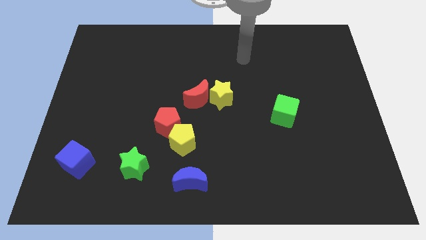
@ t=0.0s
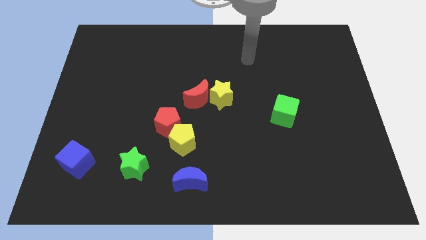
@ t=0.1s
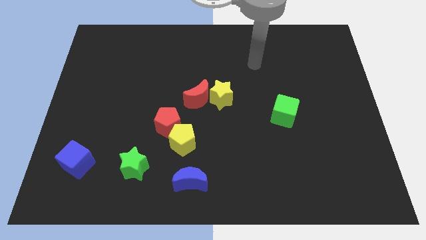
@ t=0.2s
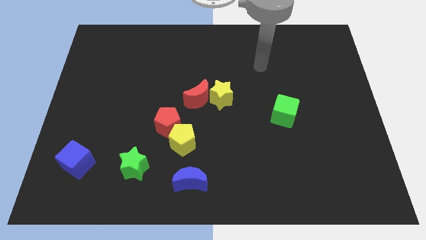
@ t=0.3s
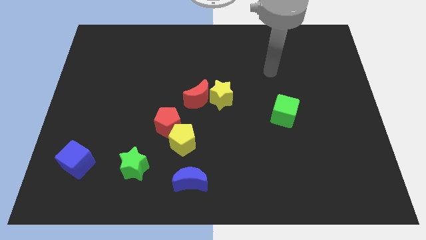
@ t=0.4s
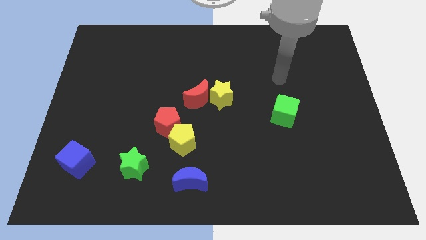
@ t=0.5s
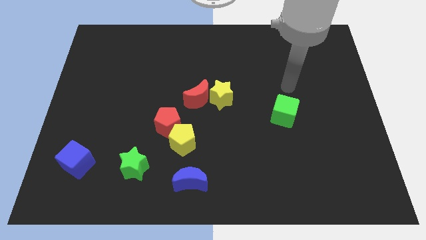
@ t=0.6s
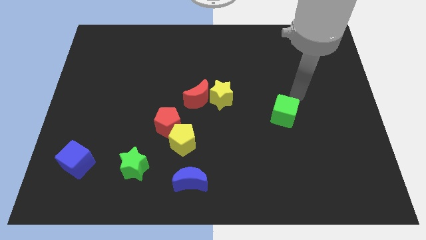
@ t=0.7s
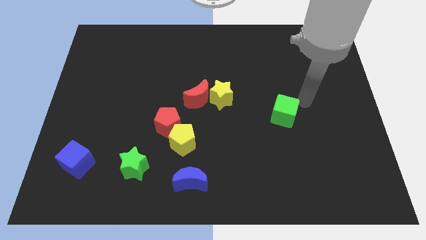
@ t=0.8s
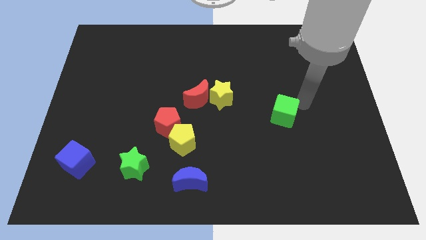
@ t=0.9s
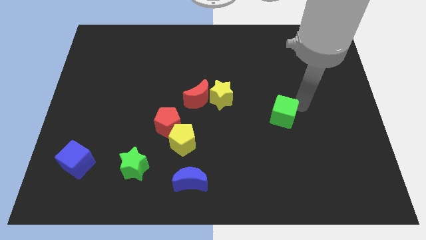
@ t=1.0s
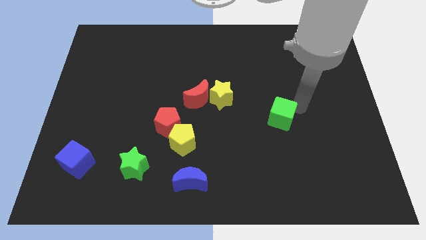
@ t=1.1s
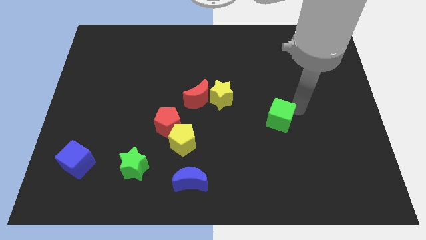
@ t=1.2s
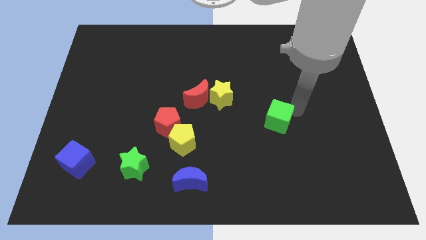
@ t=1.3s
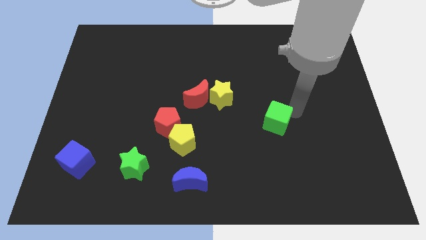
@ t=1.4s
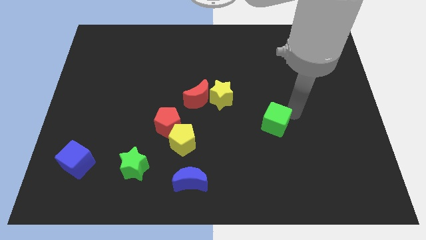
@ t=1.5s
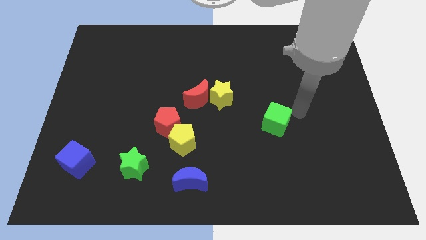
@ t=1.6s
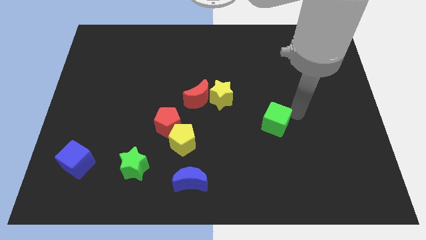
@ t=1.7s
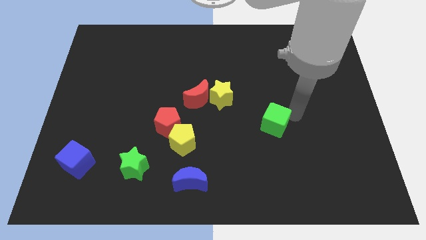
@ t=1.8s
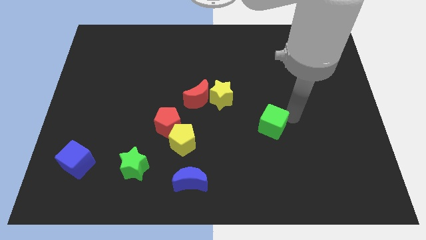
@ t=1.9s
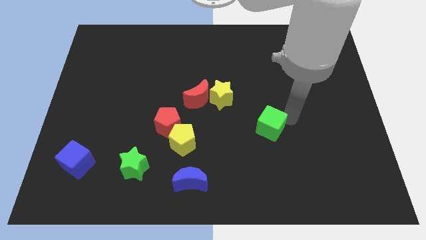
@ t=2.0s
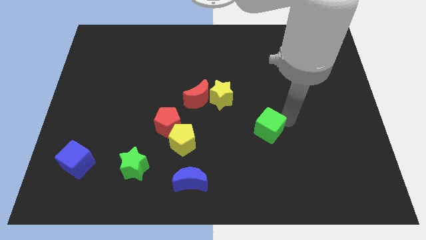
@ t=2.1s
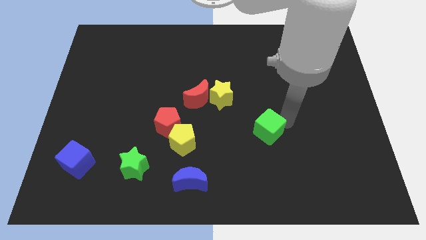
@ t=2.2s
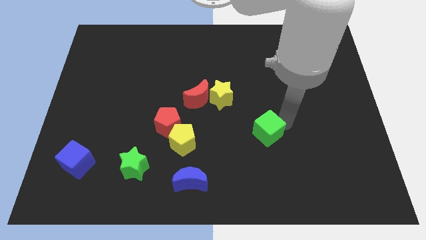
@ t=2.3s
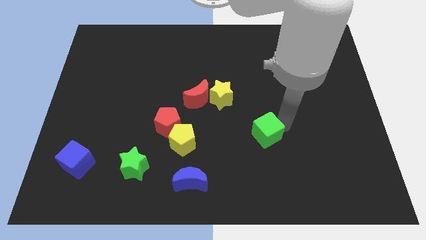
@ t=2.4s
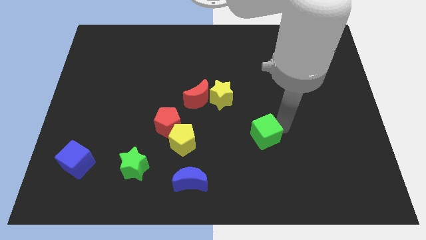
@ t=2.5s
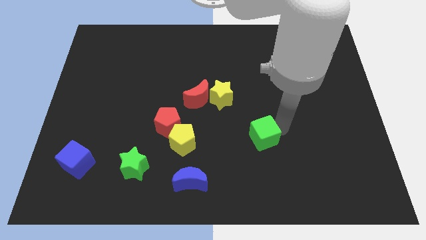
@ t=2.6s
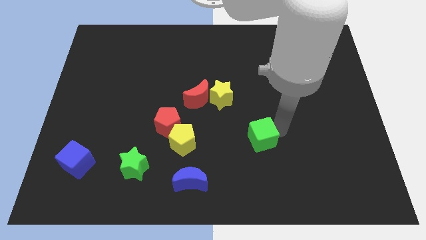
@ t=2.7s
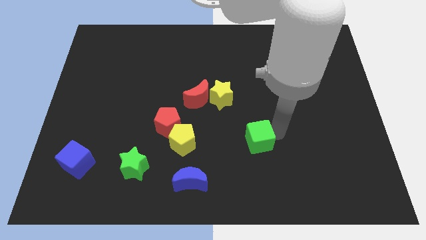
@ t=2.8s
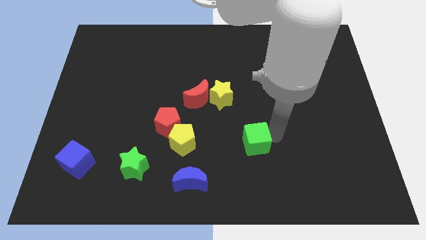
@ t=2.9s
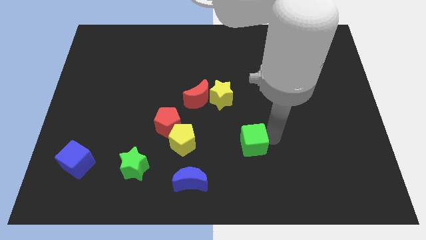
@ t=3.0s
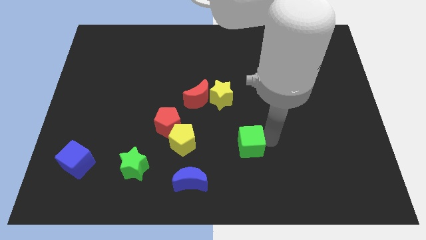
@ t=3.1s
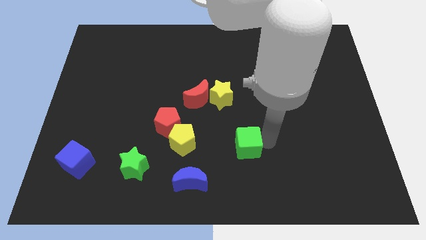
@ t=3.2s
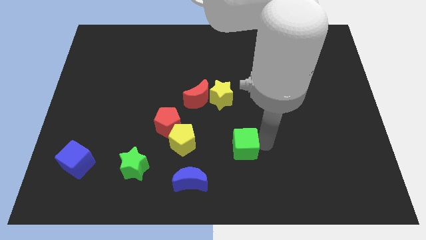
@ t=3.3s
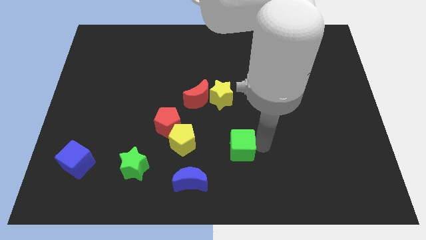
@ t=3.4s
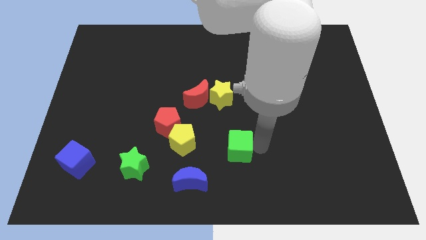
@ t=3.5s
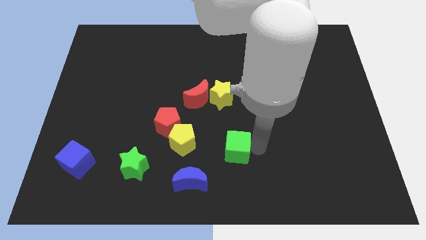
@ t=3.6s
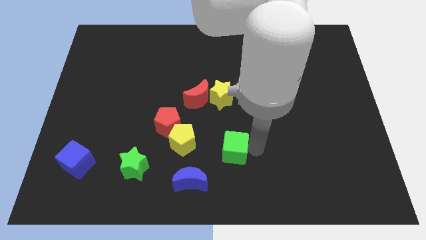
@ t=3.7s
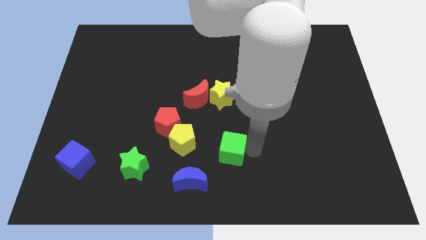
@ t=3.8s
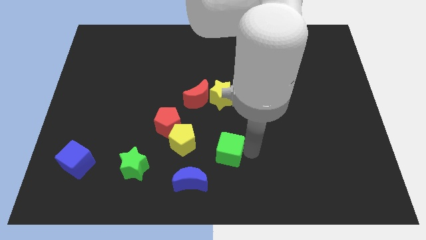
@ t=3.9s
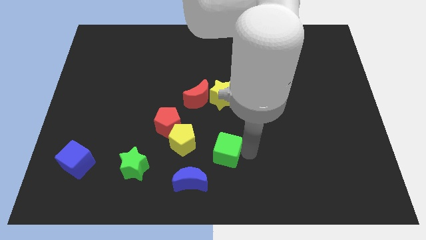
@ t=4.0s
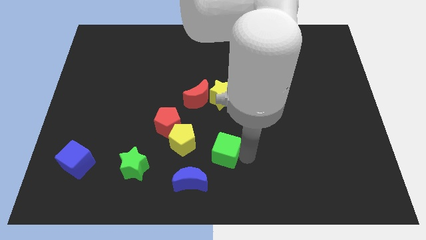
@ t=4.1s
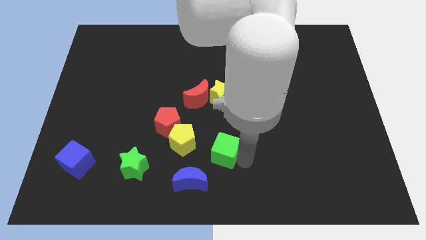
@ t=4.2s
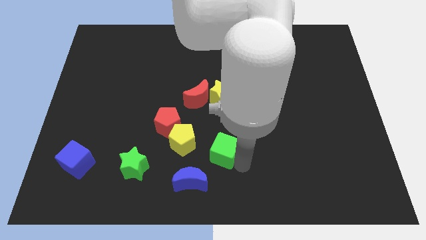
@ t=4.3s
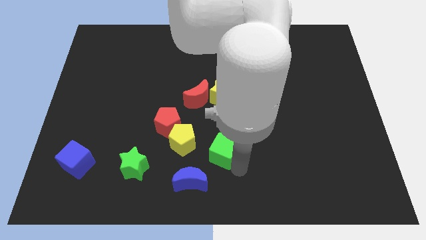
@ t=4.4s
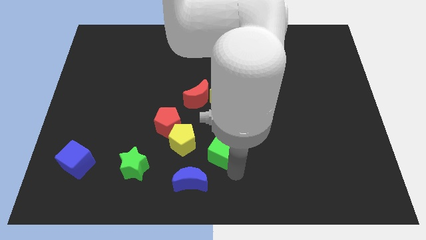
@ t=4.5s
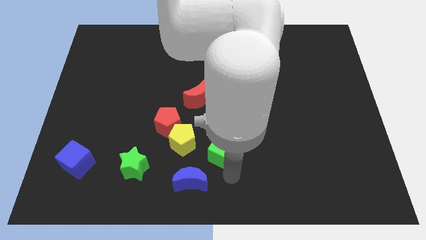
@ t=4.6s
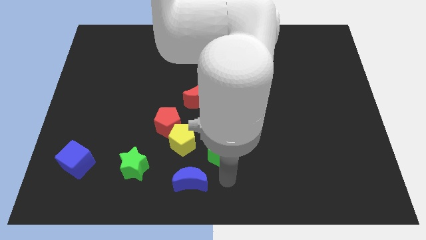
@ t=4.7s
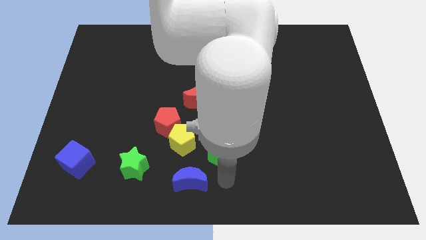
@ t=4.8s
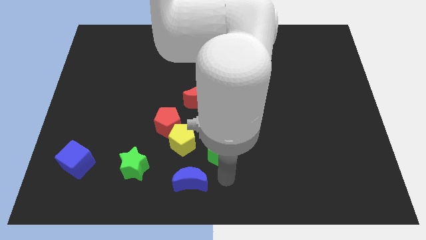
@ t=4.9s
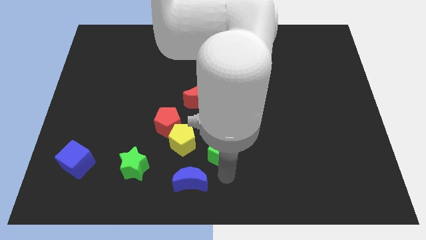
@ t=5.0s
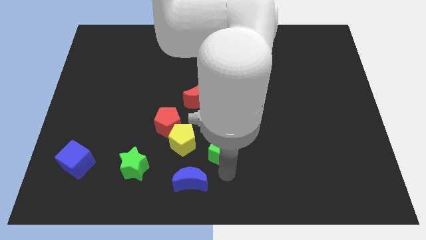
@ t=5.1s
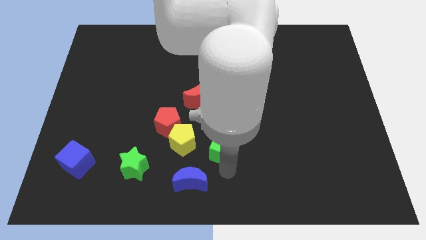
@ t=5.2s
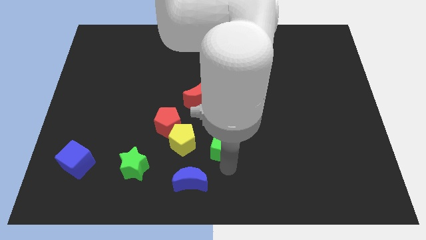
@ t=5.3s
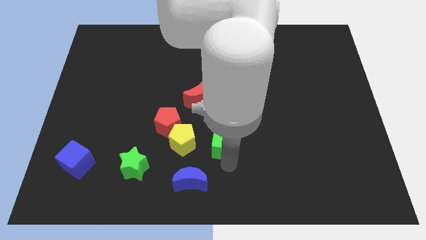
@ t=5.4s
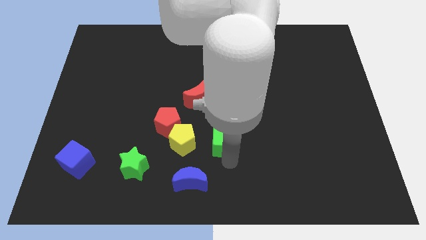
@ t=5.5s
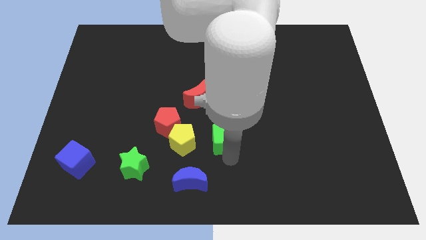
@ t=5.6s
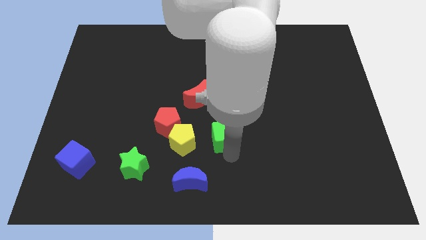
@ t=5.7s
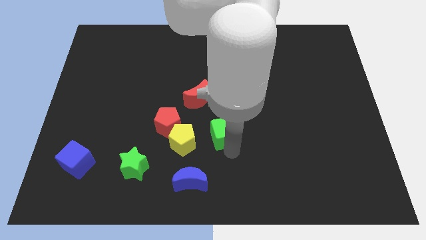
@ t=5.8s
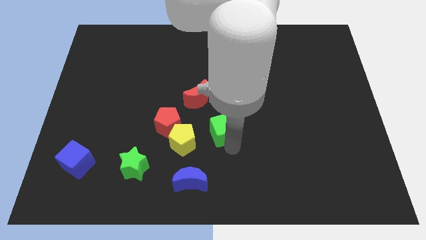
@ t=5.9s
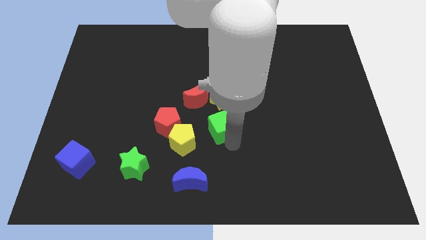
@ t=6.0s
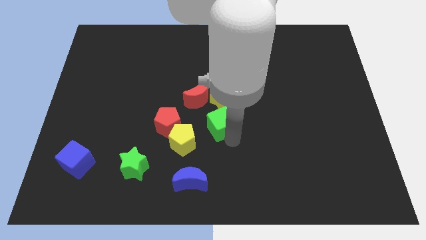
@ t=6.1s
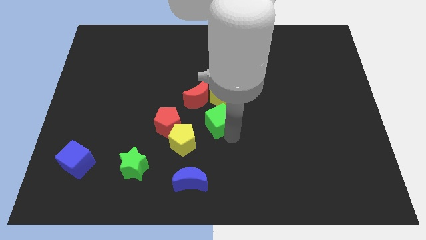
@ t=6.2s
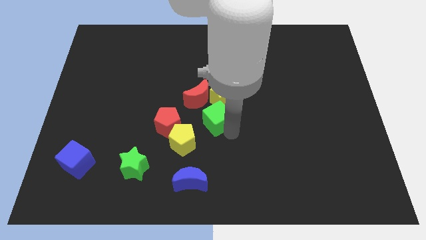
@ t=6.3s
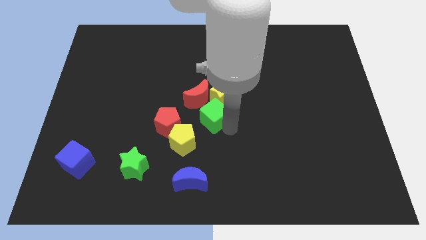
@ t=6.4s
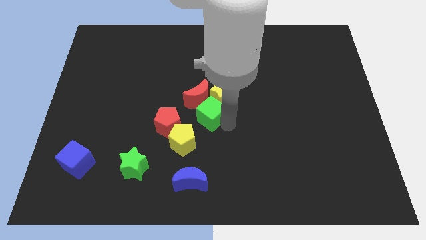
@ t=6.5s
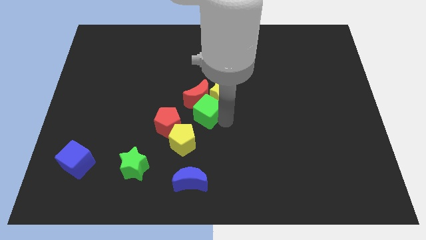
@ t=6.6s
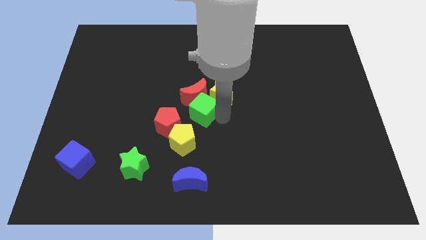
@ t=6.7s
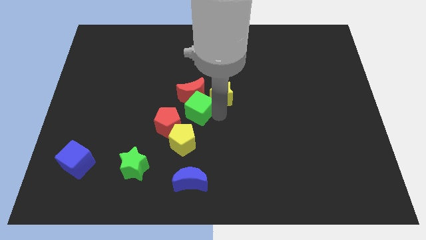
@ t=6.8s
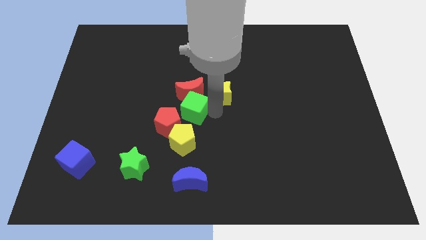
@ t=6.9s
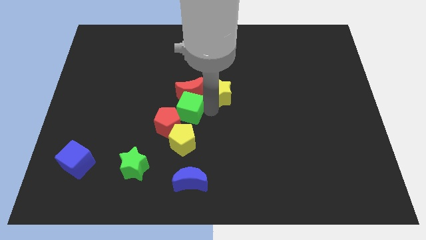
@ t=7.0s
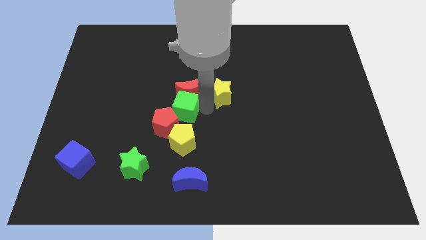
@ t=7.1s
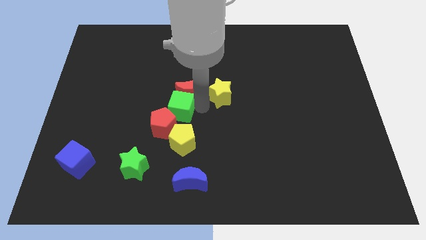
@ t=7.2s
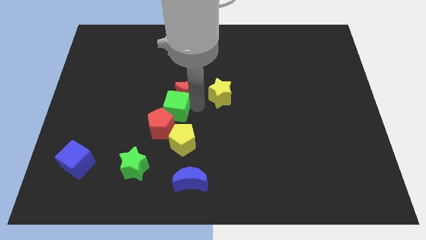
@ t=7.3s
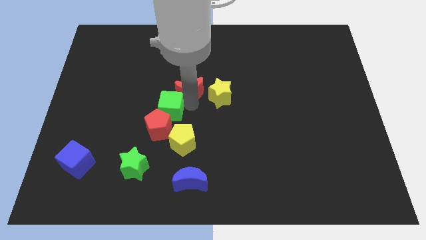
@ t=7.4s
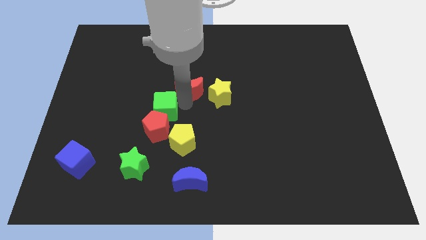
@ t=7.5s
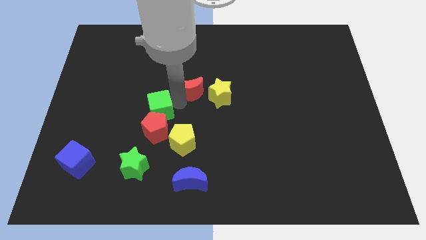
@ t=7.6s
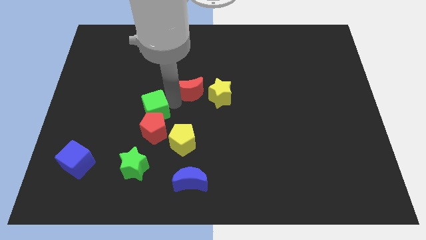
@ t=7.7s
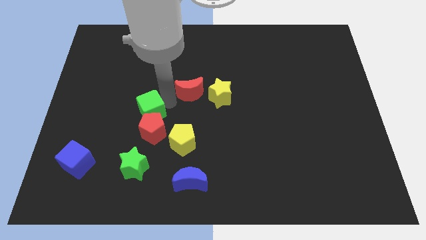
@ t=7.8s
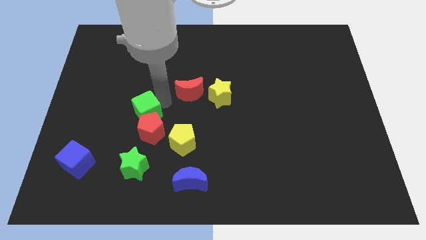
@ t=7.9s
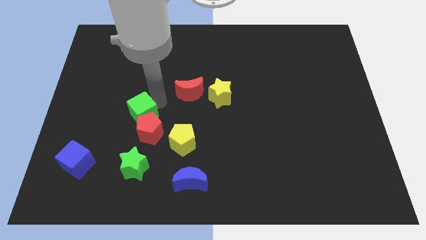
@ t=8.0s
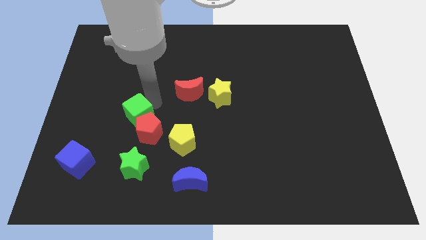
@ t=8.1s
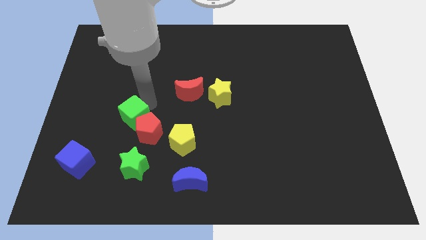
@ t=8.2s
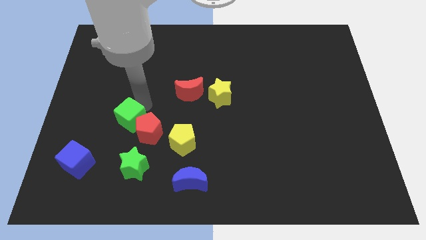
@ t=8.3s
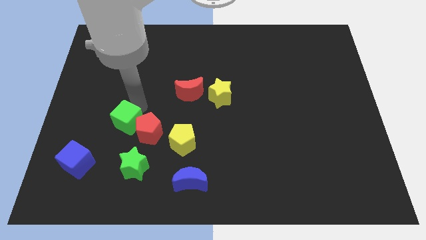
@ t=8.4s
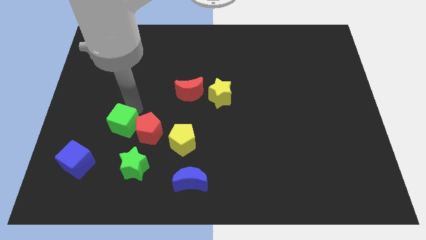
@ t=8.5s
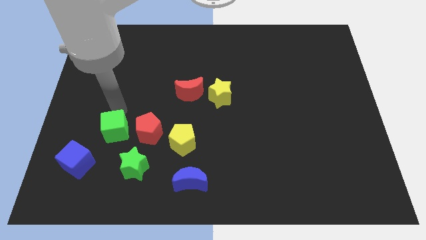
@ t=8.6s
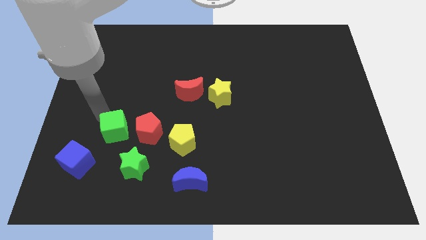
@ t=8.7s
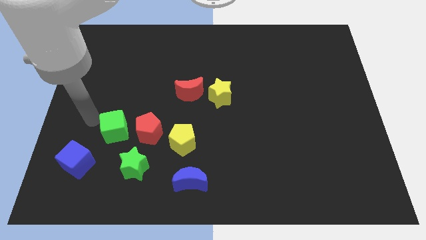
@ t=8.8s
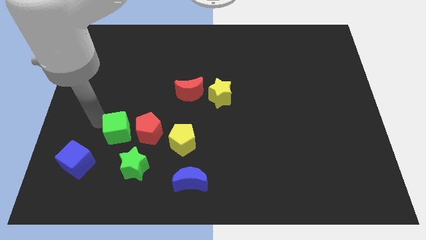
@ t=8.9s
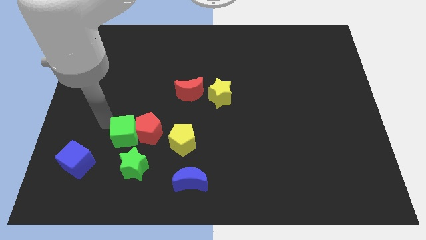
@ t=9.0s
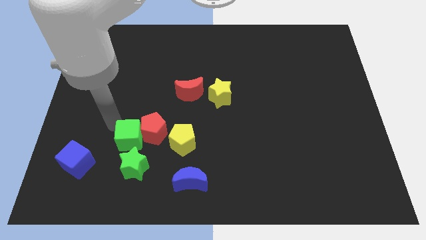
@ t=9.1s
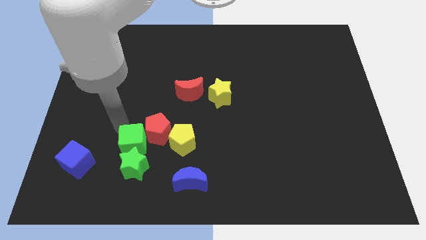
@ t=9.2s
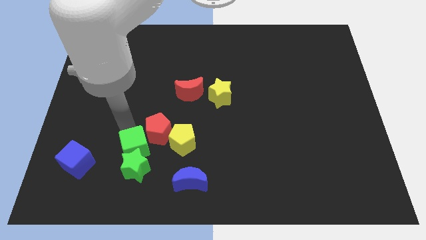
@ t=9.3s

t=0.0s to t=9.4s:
slide the green cube to the bottom side of the red pentagon
